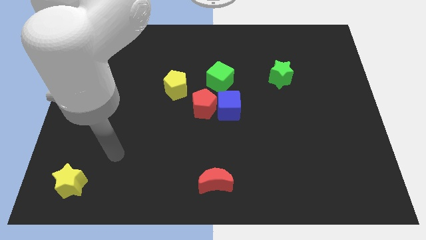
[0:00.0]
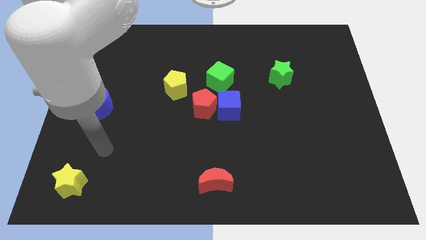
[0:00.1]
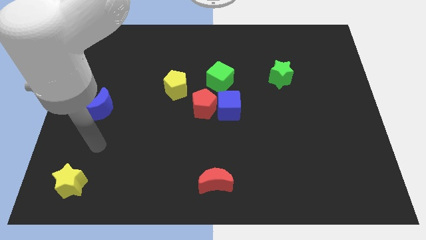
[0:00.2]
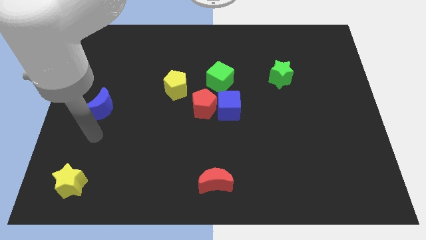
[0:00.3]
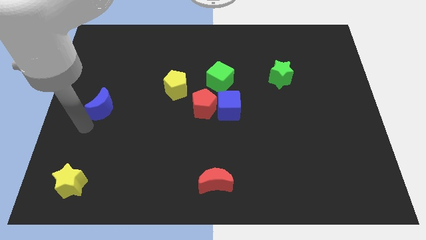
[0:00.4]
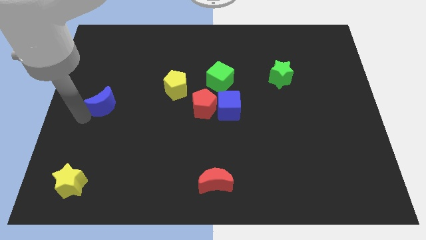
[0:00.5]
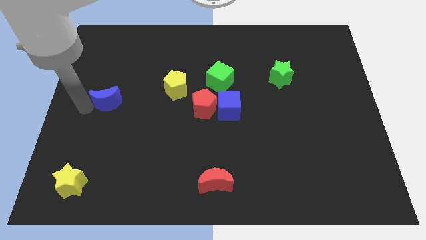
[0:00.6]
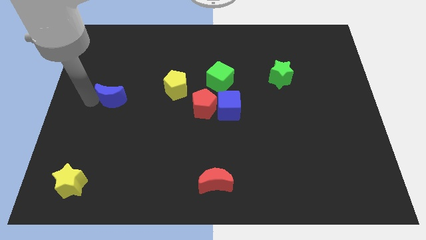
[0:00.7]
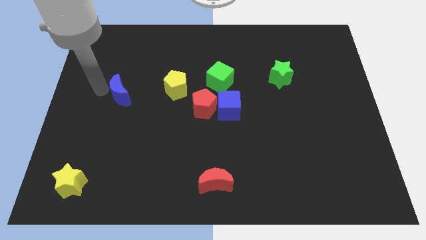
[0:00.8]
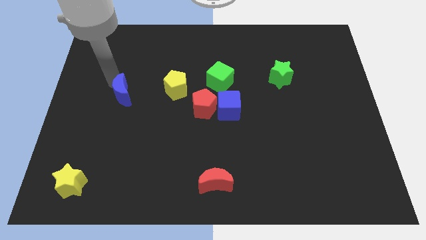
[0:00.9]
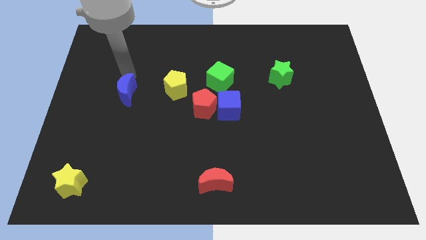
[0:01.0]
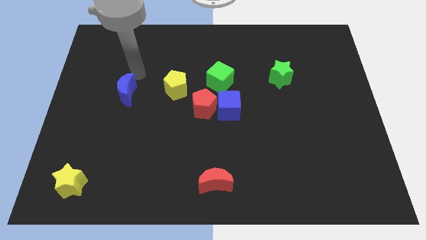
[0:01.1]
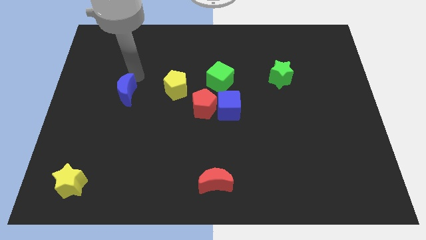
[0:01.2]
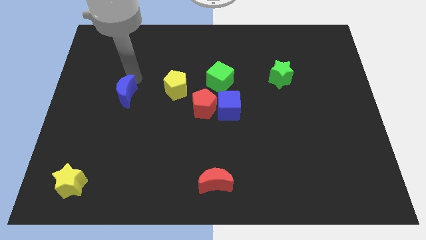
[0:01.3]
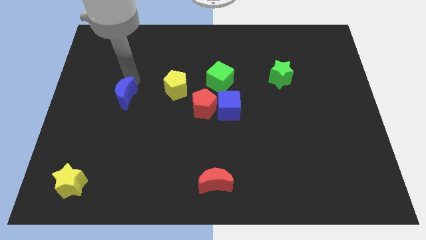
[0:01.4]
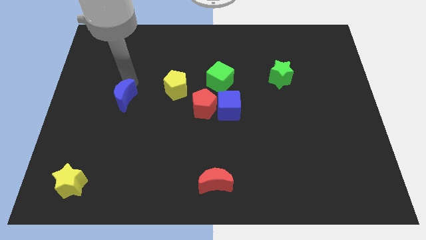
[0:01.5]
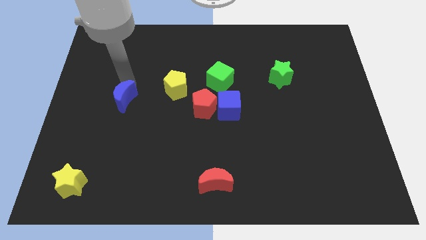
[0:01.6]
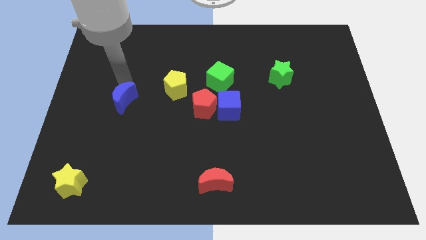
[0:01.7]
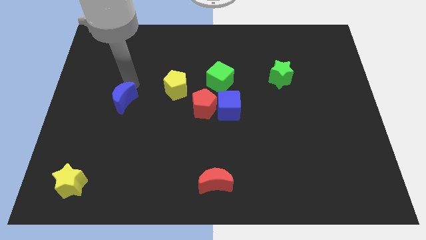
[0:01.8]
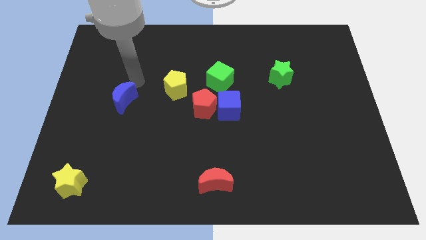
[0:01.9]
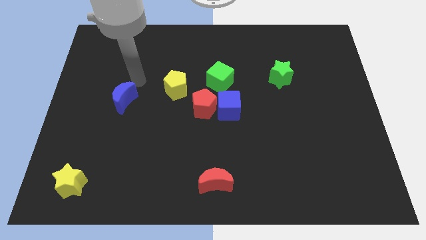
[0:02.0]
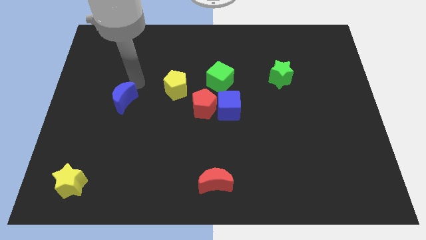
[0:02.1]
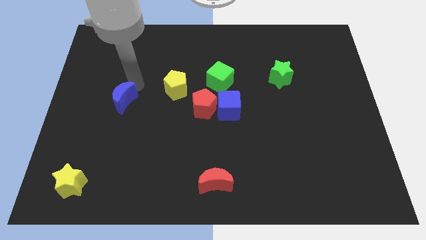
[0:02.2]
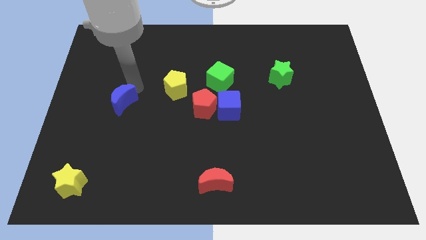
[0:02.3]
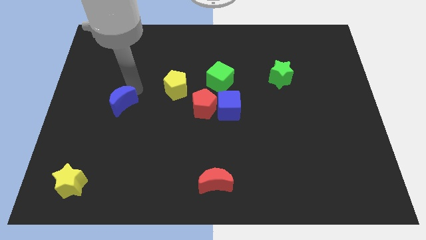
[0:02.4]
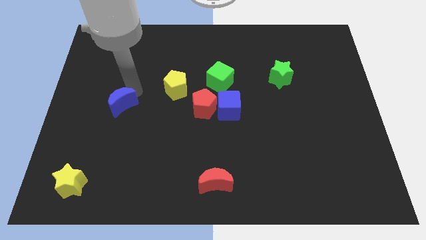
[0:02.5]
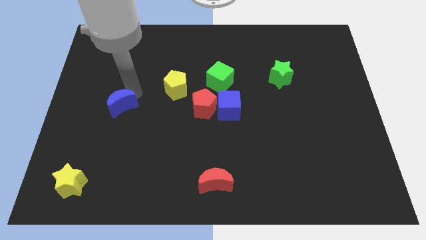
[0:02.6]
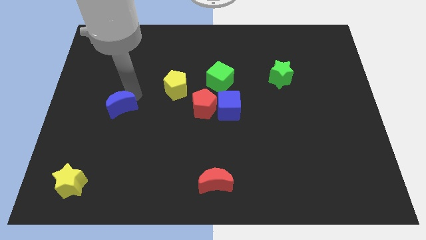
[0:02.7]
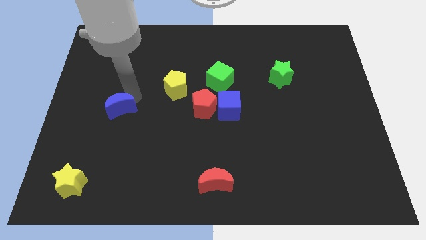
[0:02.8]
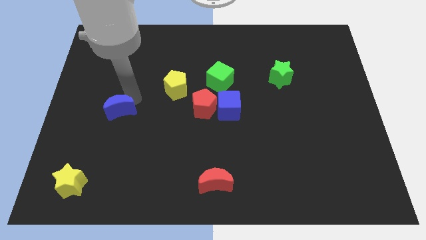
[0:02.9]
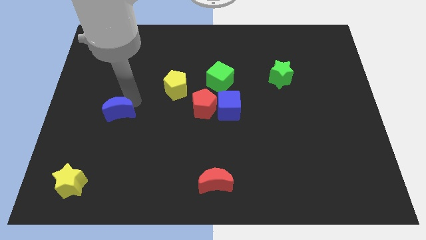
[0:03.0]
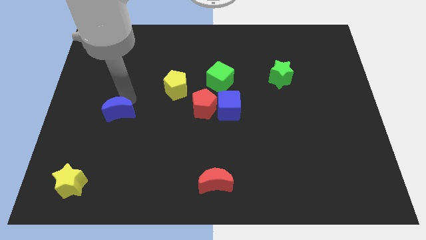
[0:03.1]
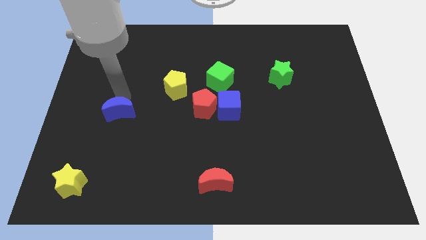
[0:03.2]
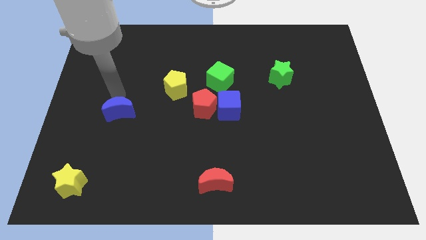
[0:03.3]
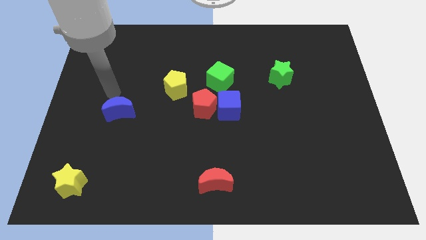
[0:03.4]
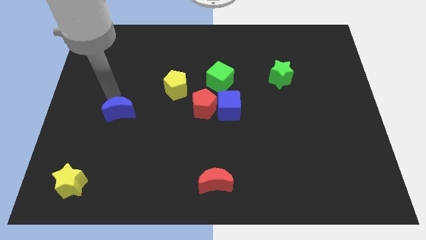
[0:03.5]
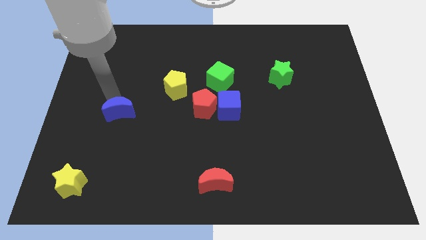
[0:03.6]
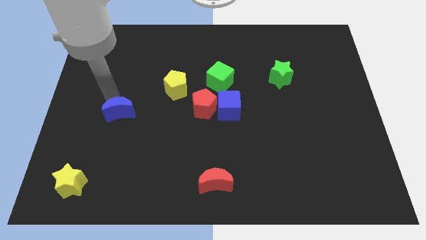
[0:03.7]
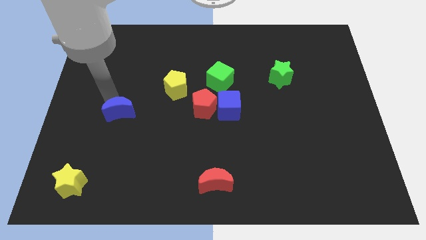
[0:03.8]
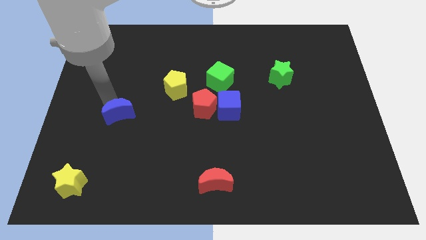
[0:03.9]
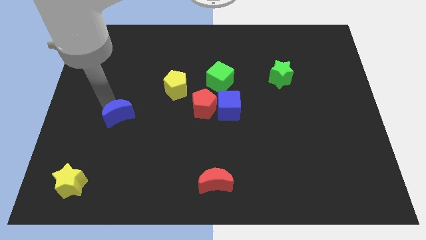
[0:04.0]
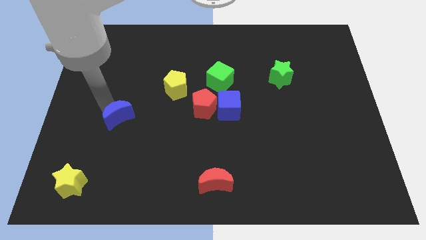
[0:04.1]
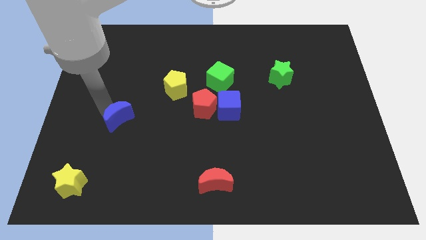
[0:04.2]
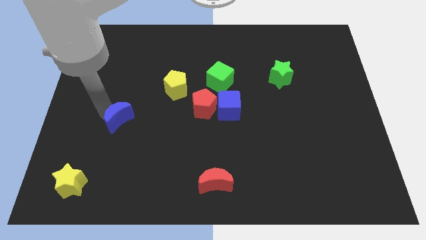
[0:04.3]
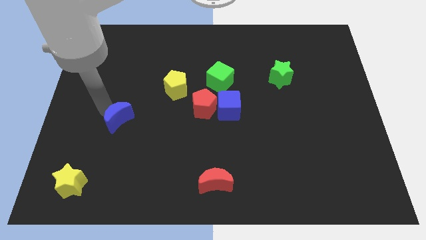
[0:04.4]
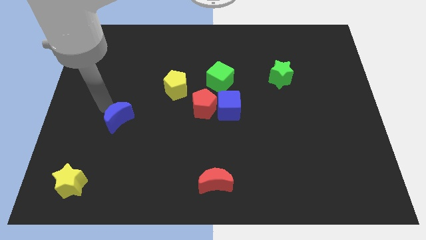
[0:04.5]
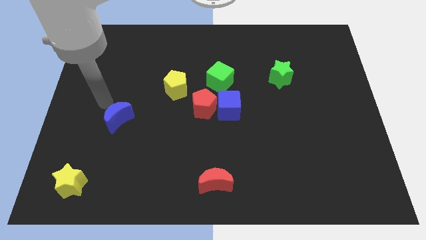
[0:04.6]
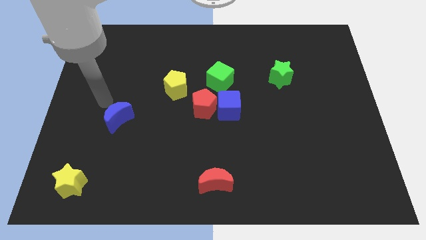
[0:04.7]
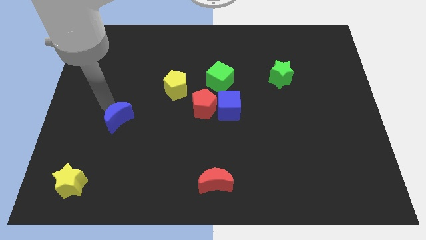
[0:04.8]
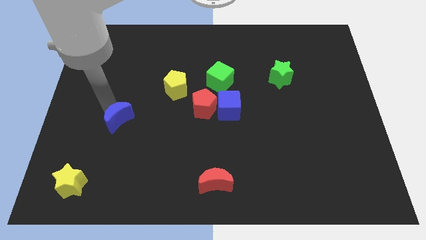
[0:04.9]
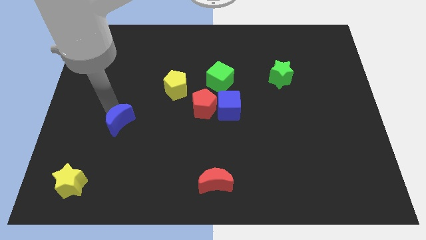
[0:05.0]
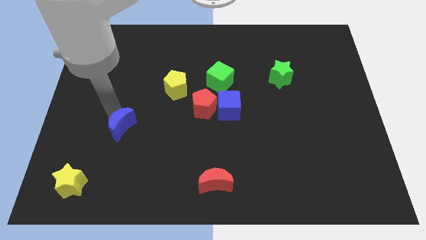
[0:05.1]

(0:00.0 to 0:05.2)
slightly slide the blue moon down and then to the right

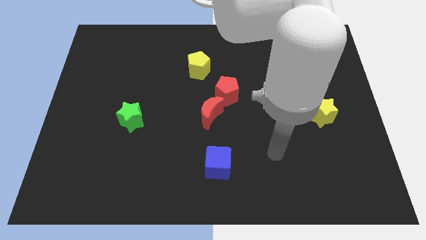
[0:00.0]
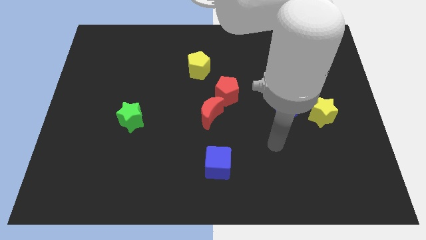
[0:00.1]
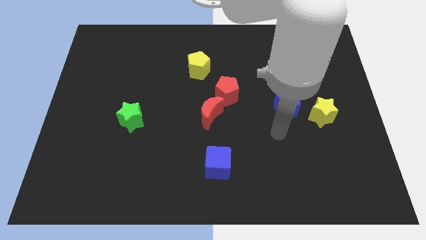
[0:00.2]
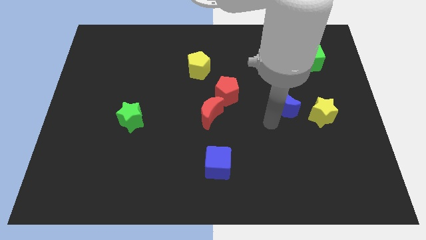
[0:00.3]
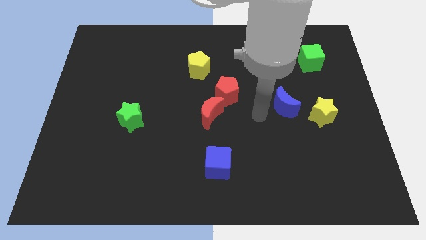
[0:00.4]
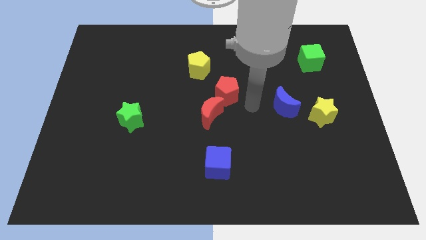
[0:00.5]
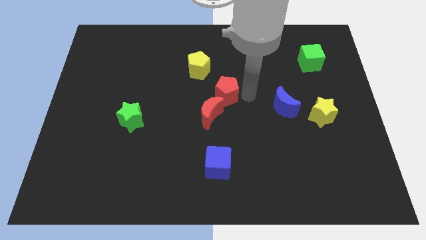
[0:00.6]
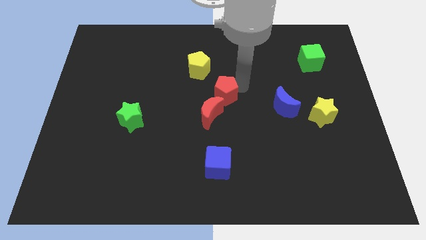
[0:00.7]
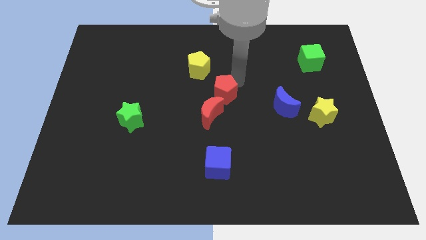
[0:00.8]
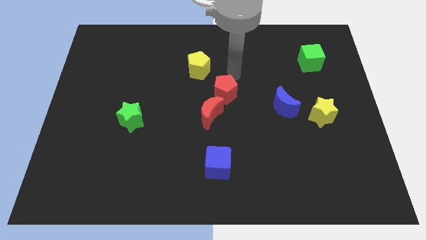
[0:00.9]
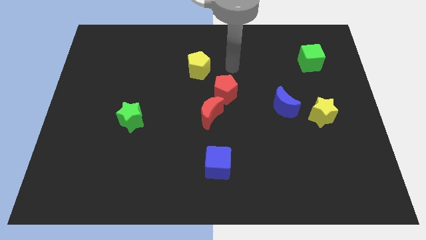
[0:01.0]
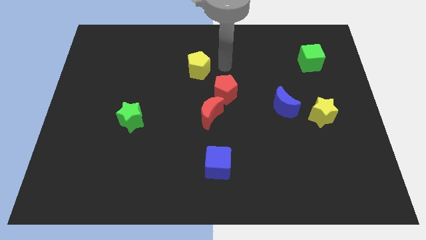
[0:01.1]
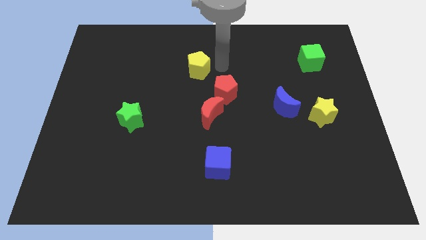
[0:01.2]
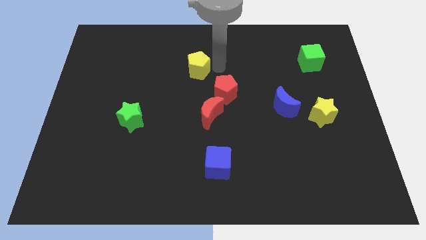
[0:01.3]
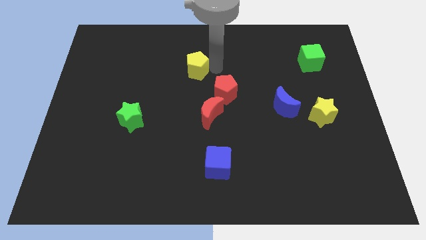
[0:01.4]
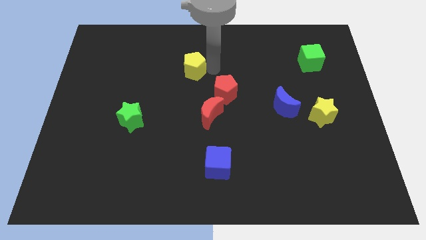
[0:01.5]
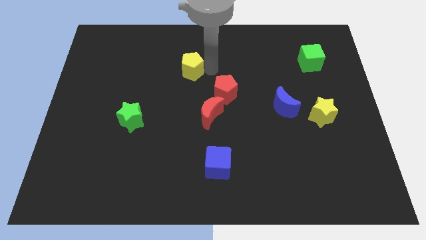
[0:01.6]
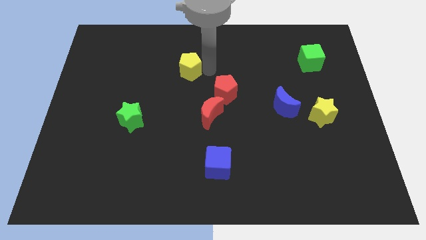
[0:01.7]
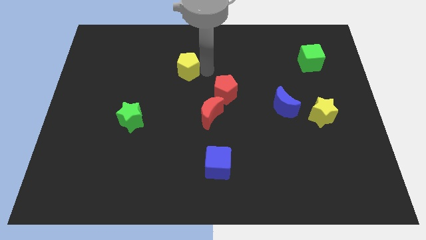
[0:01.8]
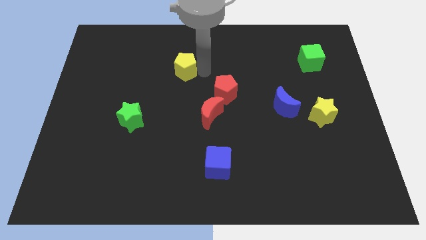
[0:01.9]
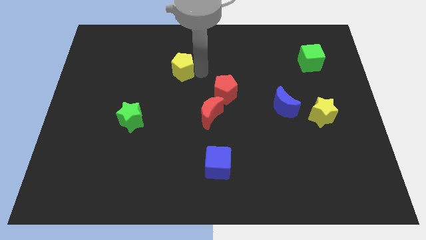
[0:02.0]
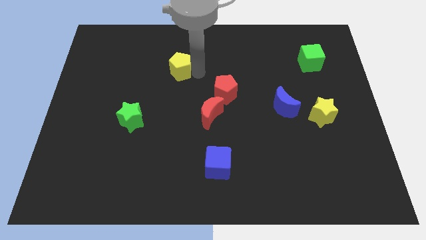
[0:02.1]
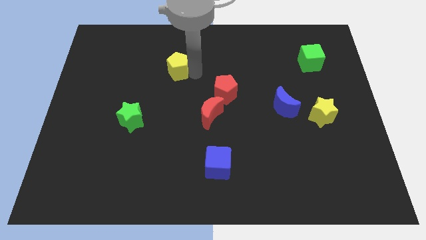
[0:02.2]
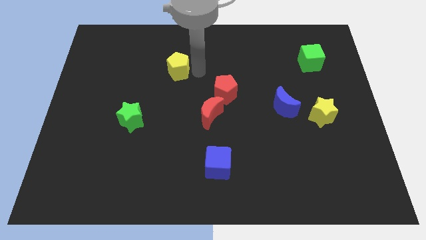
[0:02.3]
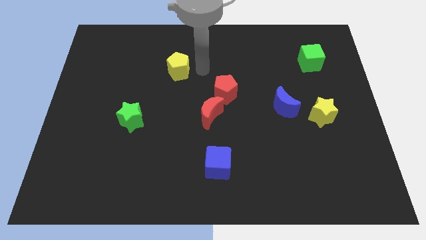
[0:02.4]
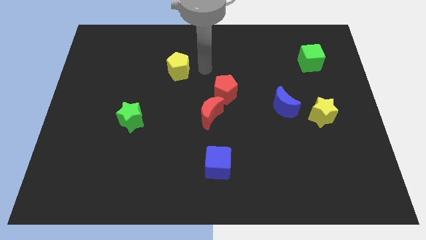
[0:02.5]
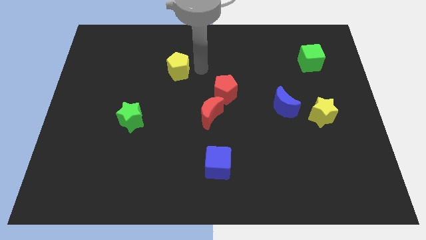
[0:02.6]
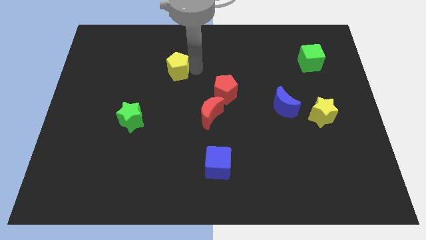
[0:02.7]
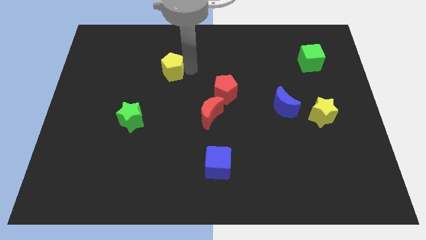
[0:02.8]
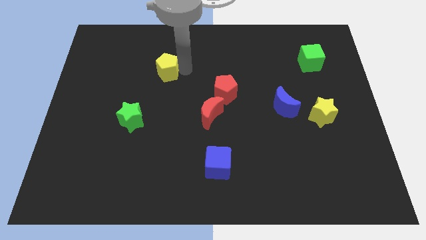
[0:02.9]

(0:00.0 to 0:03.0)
slightly move the yellow pentagon to the left
